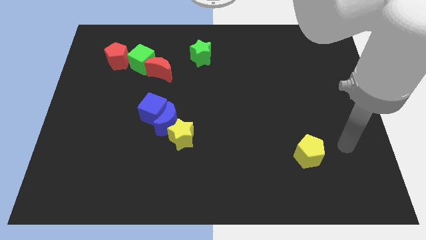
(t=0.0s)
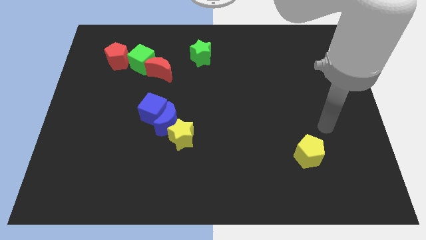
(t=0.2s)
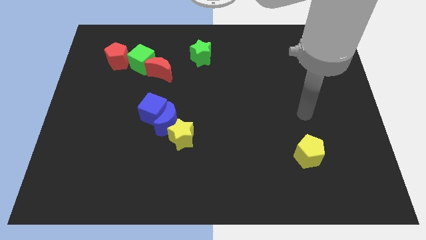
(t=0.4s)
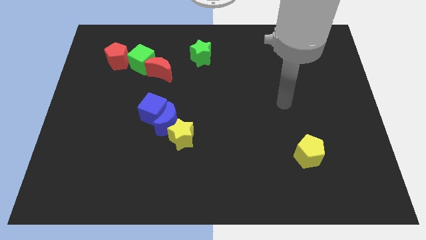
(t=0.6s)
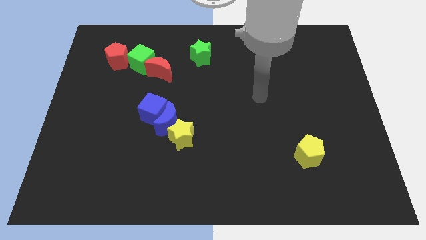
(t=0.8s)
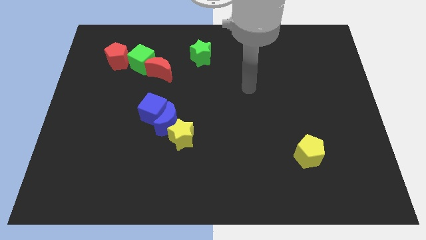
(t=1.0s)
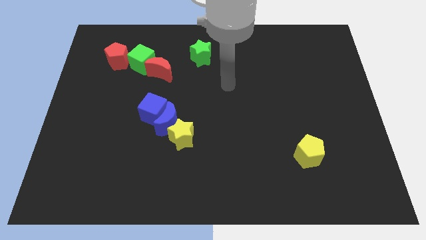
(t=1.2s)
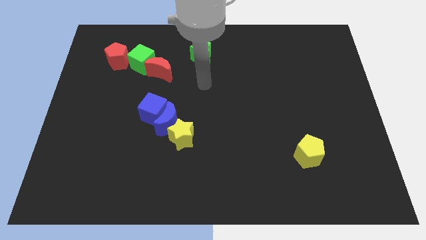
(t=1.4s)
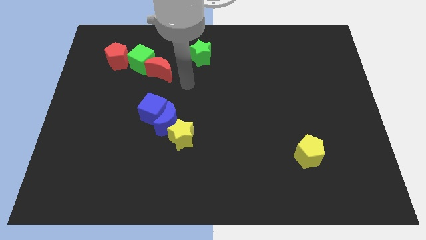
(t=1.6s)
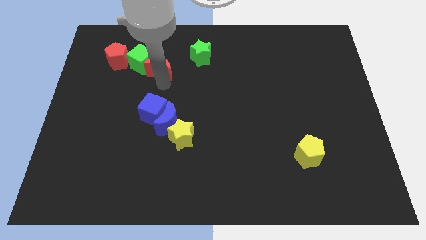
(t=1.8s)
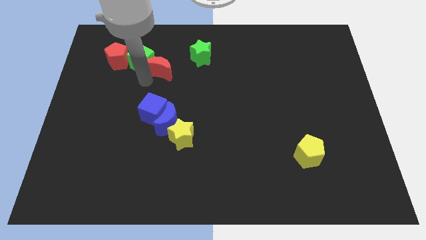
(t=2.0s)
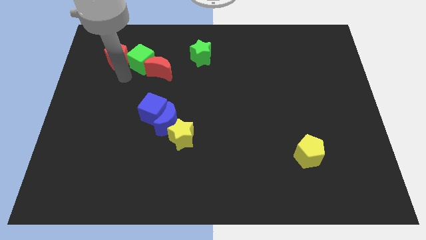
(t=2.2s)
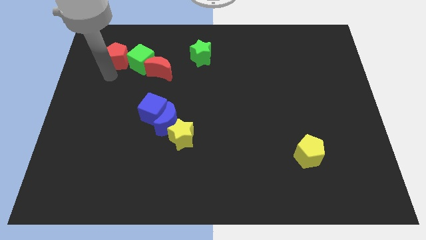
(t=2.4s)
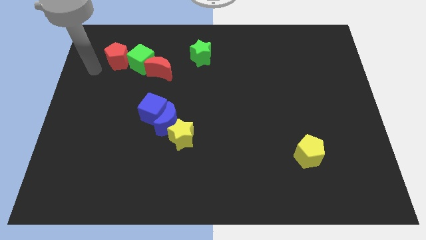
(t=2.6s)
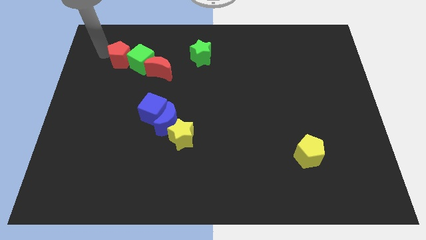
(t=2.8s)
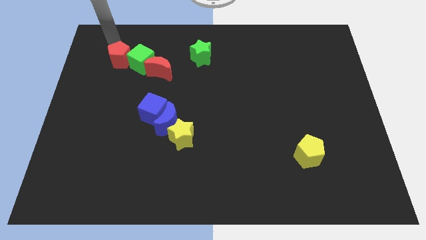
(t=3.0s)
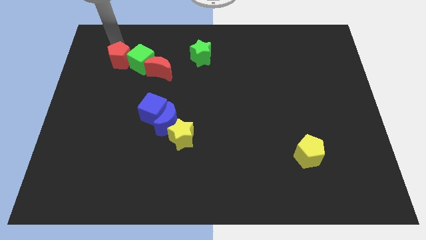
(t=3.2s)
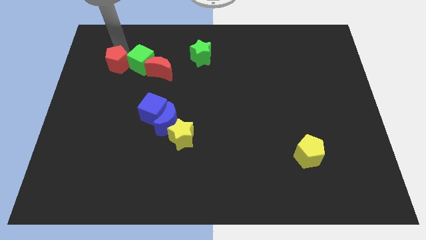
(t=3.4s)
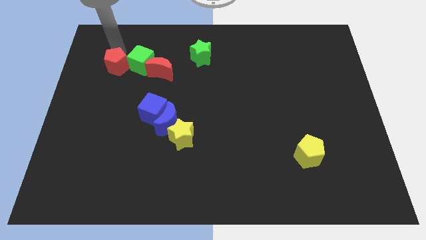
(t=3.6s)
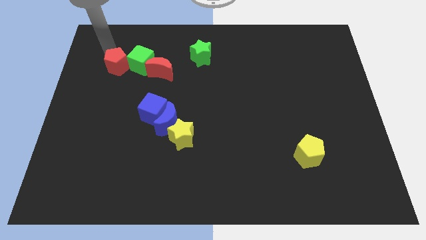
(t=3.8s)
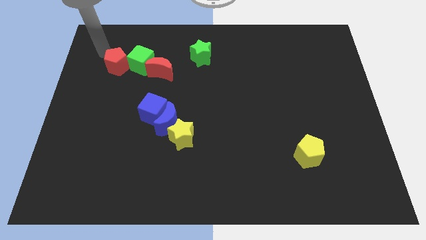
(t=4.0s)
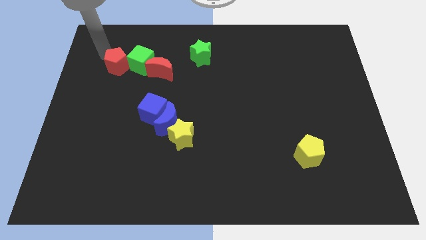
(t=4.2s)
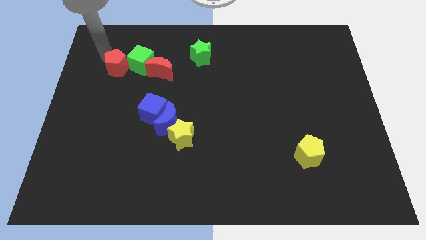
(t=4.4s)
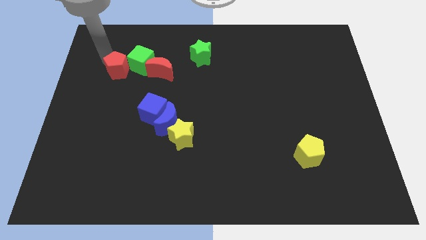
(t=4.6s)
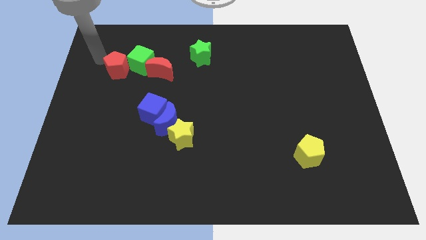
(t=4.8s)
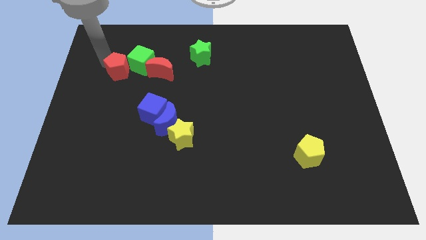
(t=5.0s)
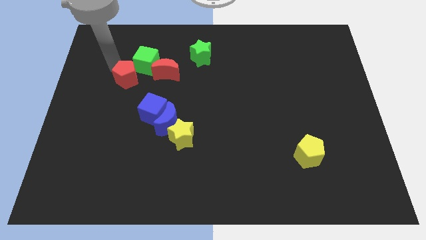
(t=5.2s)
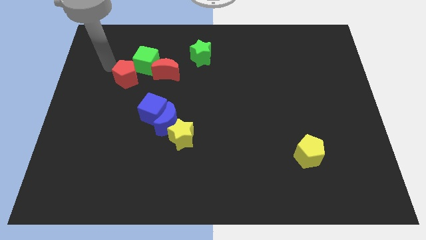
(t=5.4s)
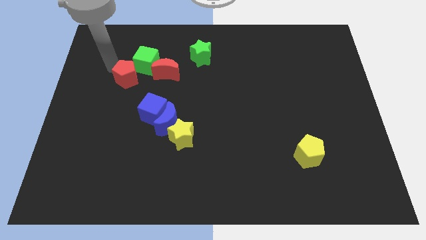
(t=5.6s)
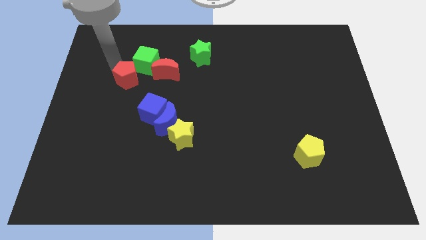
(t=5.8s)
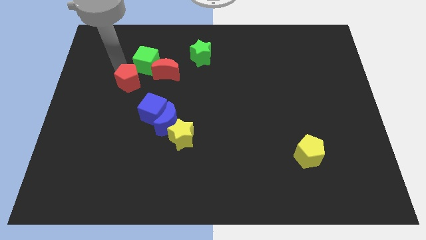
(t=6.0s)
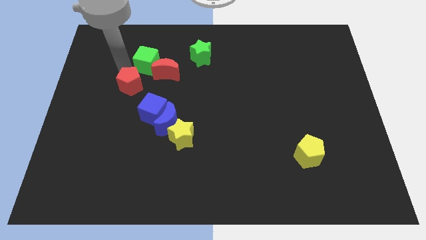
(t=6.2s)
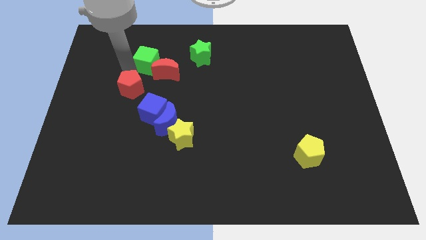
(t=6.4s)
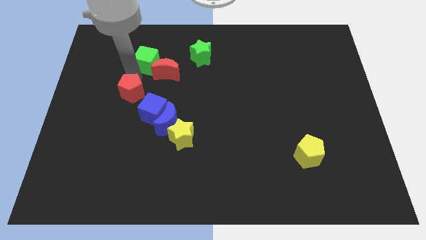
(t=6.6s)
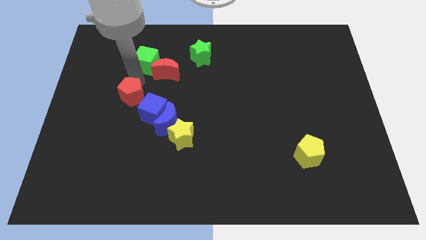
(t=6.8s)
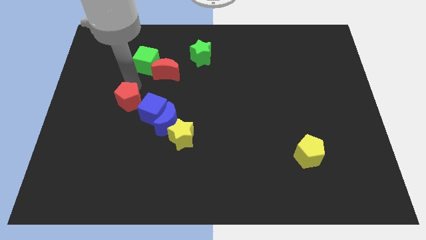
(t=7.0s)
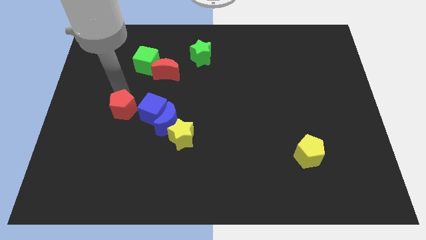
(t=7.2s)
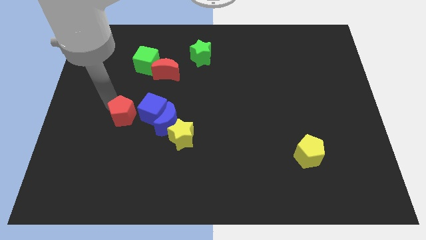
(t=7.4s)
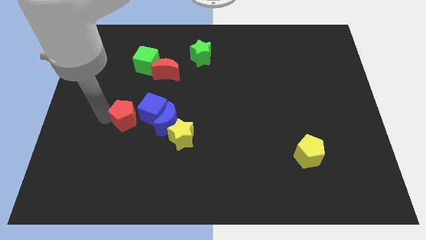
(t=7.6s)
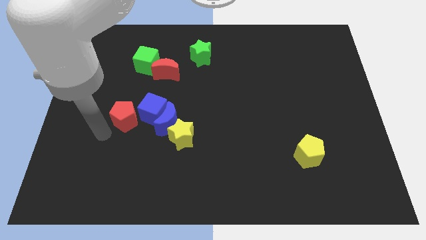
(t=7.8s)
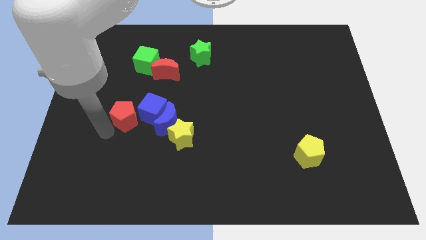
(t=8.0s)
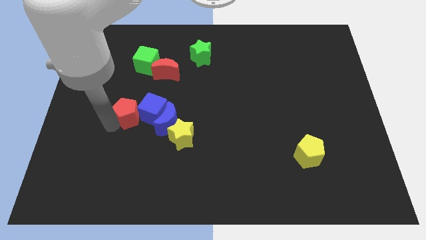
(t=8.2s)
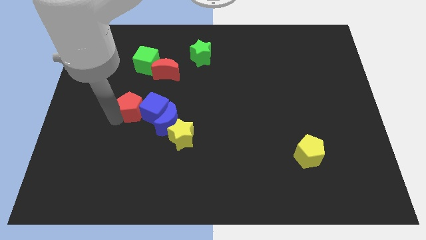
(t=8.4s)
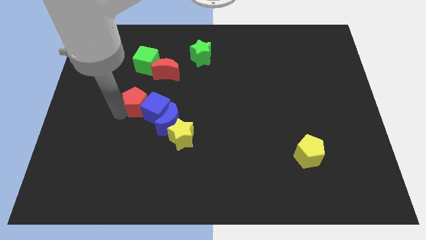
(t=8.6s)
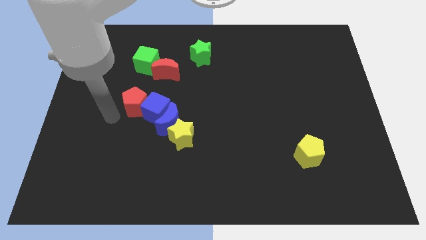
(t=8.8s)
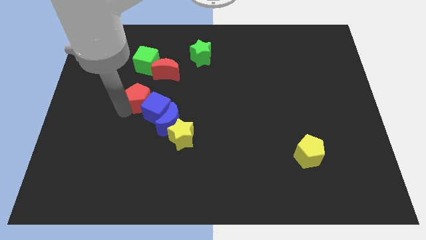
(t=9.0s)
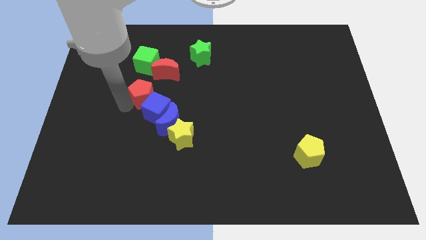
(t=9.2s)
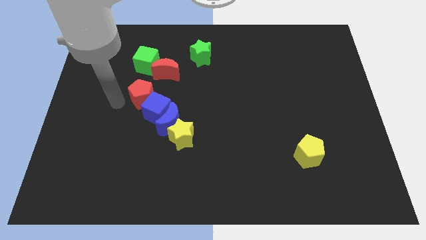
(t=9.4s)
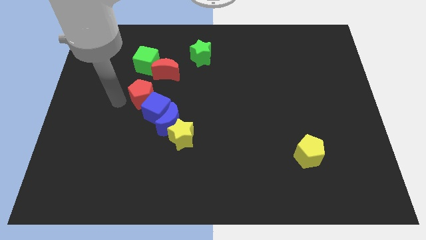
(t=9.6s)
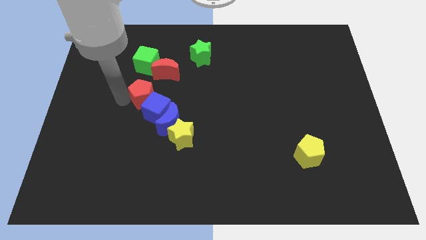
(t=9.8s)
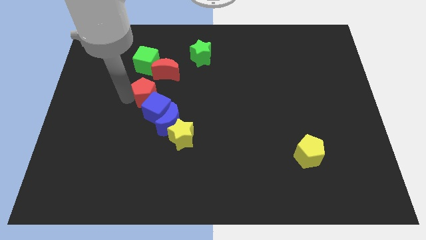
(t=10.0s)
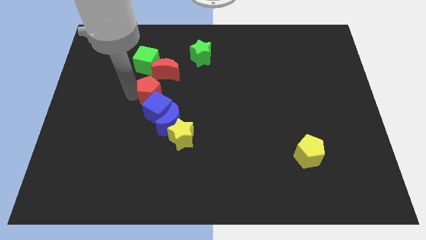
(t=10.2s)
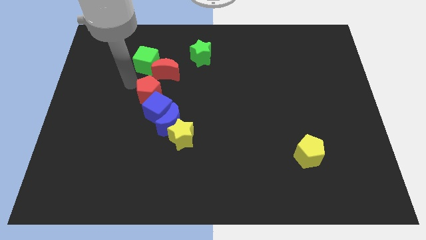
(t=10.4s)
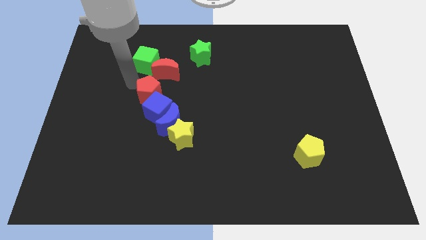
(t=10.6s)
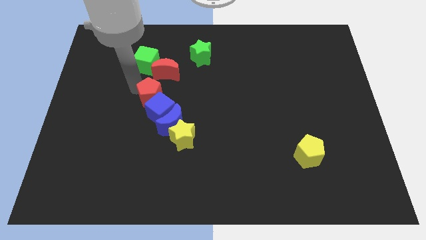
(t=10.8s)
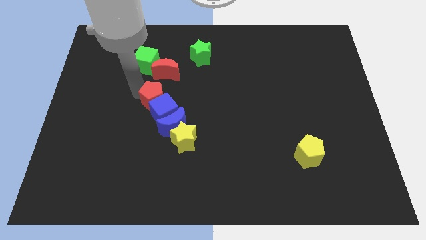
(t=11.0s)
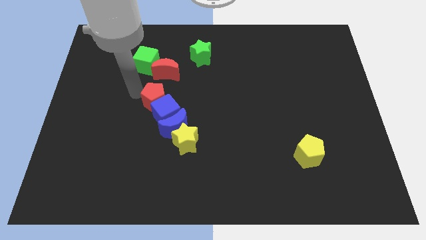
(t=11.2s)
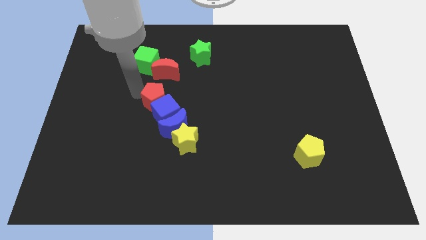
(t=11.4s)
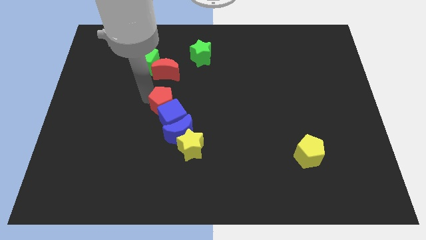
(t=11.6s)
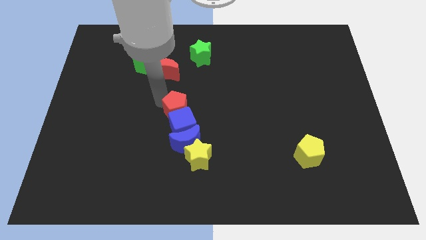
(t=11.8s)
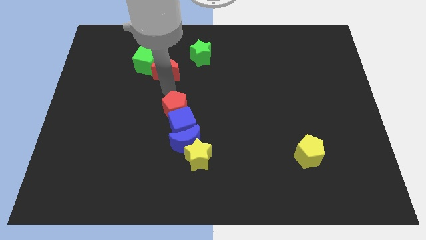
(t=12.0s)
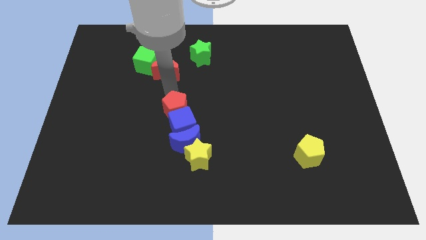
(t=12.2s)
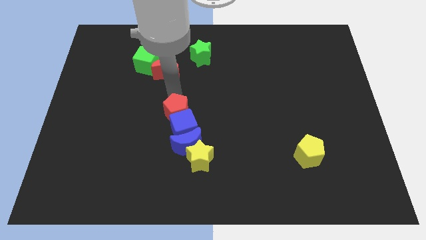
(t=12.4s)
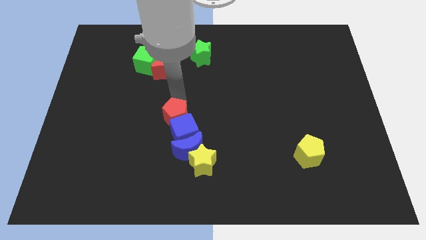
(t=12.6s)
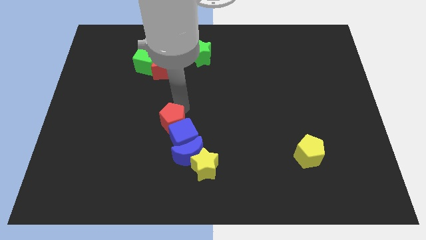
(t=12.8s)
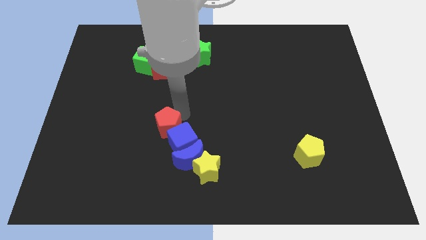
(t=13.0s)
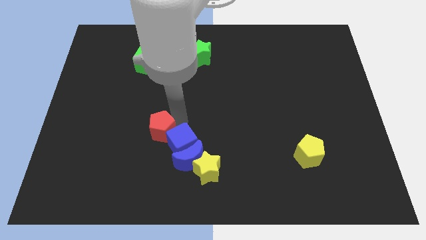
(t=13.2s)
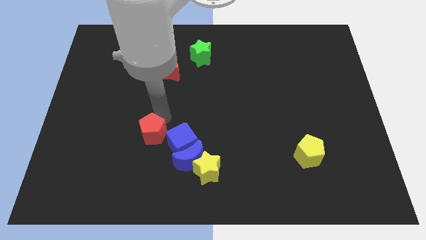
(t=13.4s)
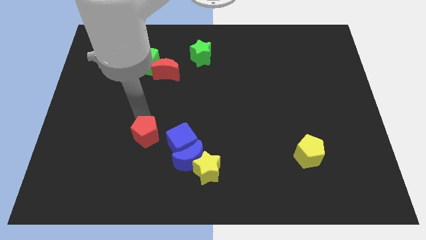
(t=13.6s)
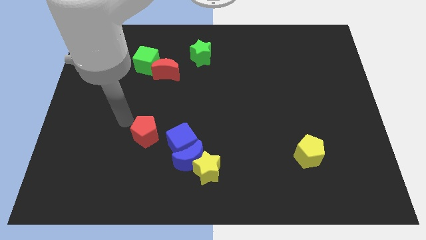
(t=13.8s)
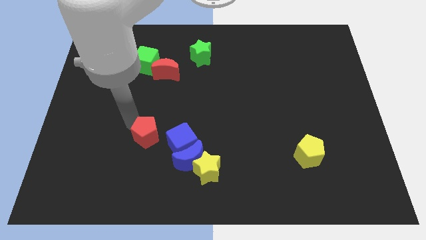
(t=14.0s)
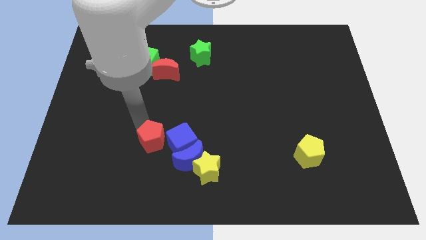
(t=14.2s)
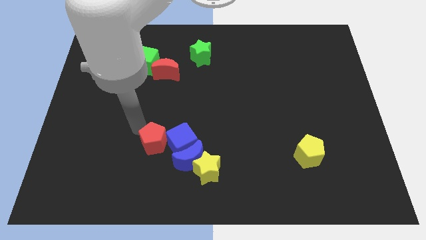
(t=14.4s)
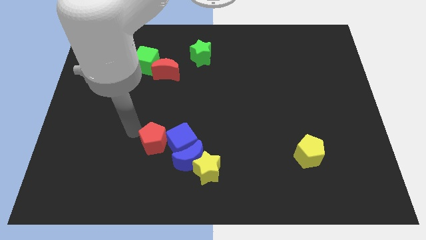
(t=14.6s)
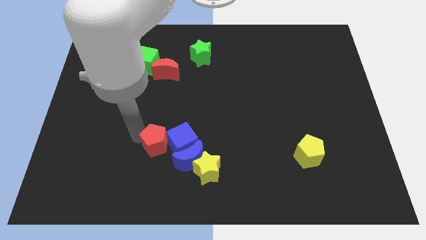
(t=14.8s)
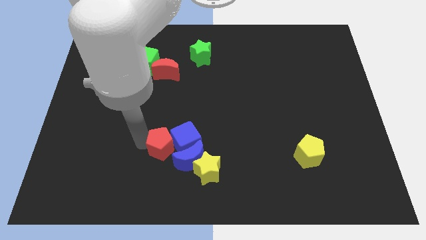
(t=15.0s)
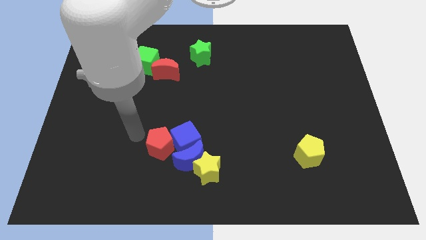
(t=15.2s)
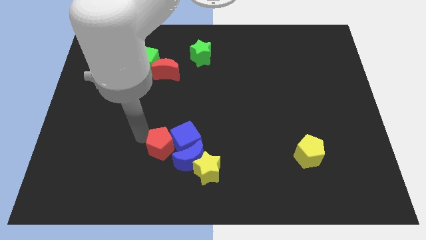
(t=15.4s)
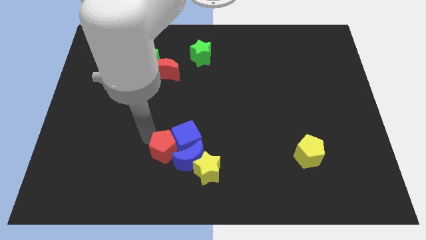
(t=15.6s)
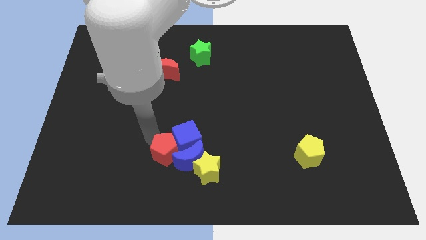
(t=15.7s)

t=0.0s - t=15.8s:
push the red pentagon next to the blue moon
